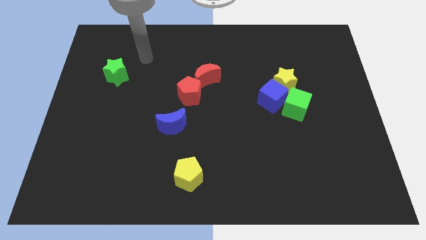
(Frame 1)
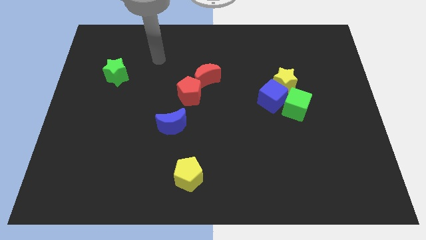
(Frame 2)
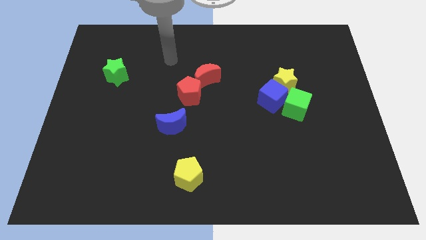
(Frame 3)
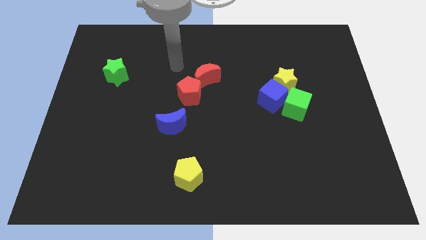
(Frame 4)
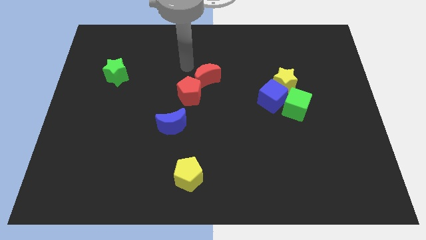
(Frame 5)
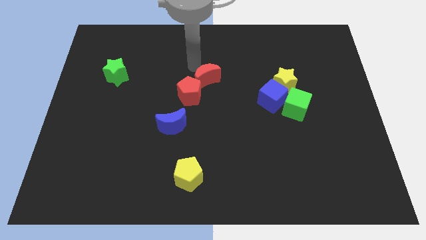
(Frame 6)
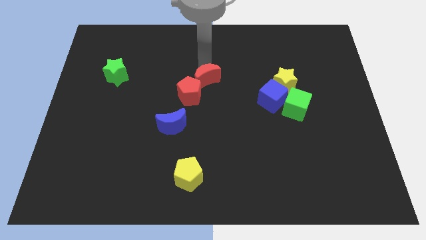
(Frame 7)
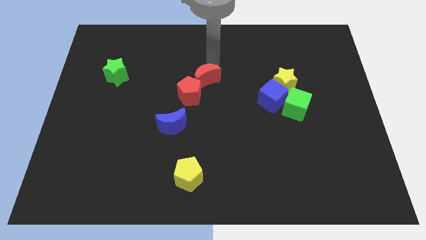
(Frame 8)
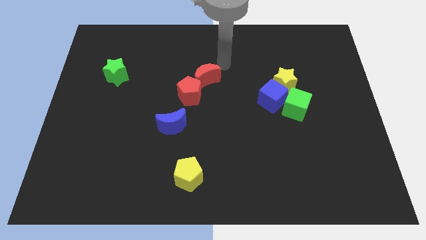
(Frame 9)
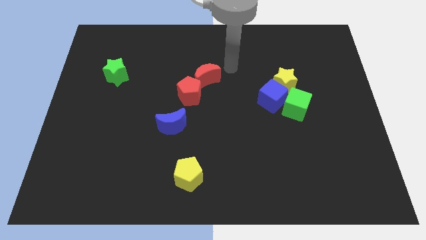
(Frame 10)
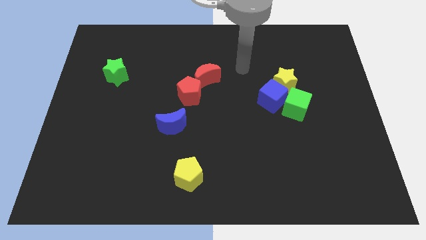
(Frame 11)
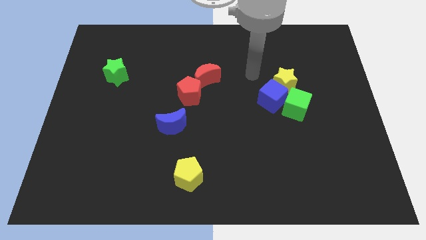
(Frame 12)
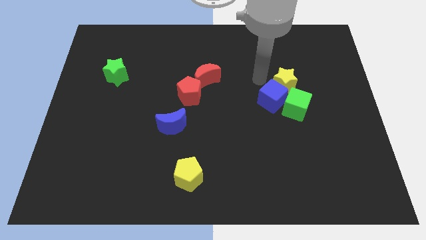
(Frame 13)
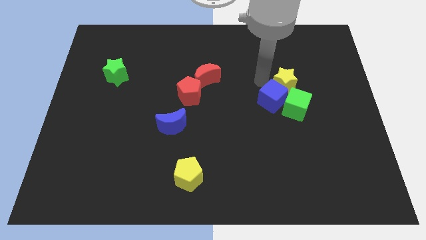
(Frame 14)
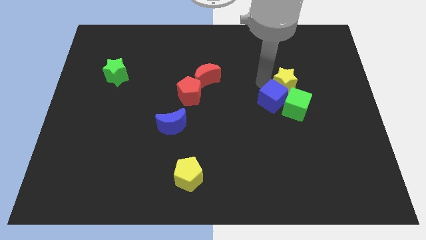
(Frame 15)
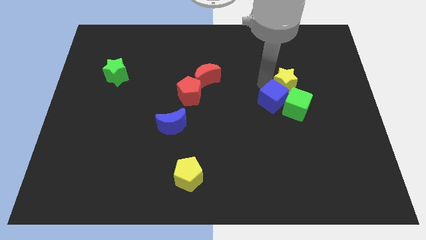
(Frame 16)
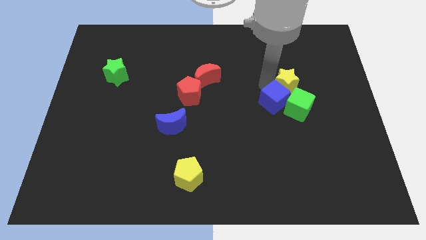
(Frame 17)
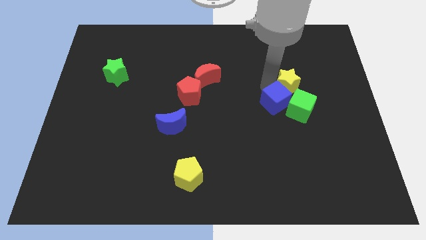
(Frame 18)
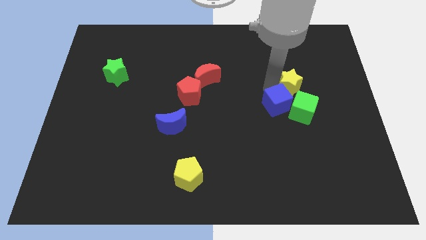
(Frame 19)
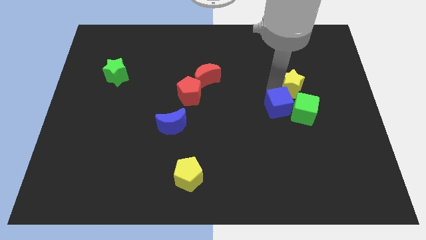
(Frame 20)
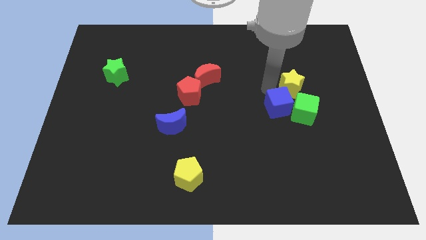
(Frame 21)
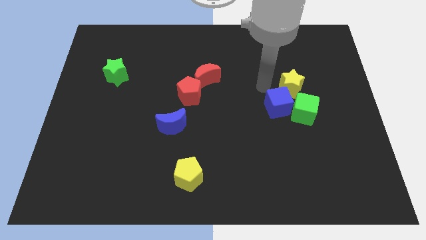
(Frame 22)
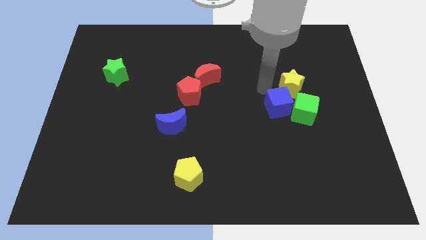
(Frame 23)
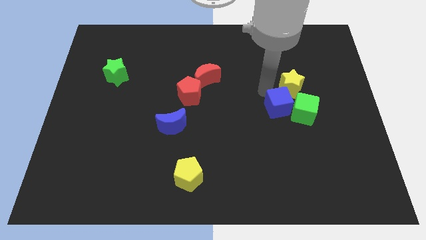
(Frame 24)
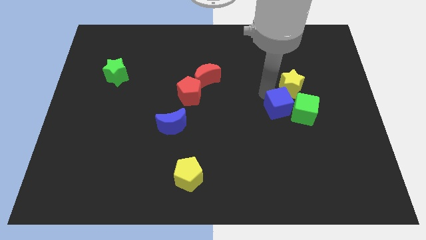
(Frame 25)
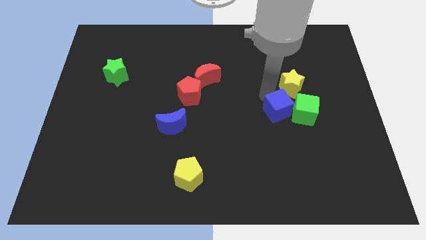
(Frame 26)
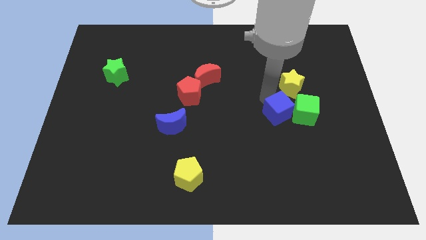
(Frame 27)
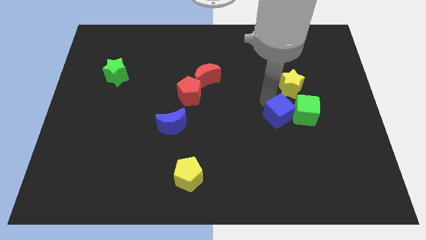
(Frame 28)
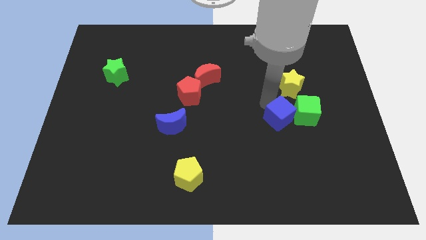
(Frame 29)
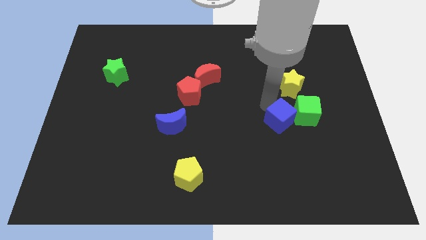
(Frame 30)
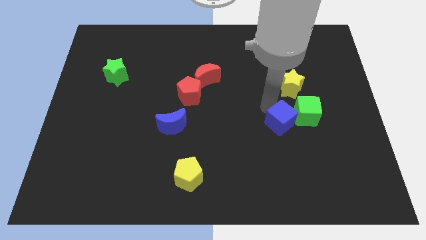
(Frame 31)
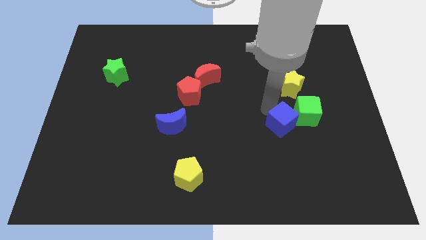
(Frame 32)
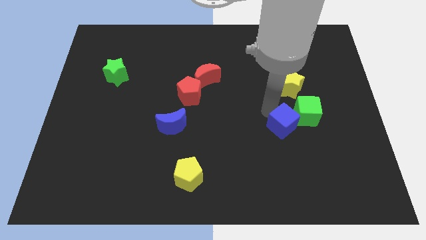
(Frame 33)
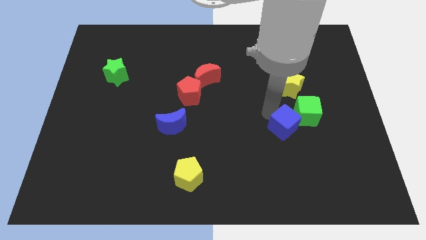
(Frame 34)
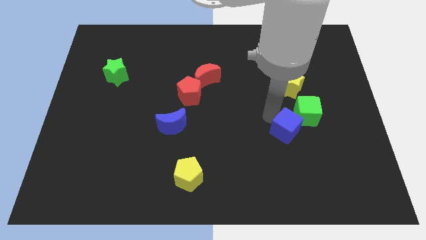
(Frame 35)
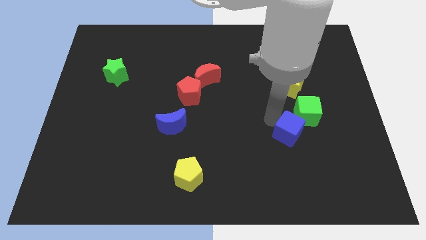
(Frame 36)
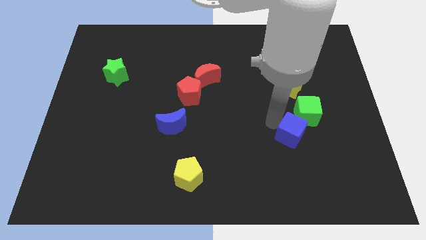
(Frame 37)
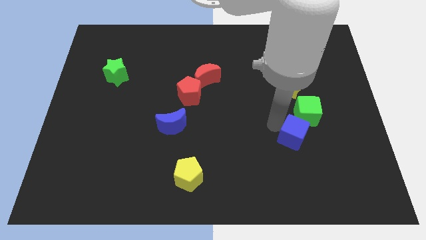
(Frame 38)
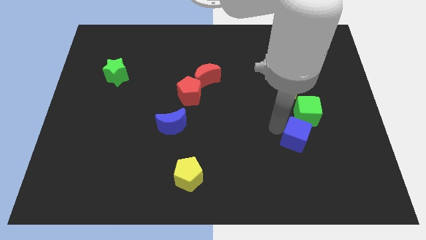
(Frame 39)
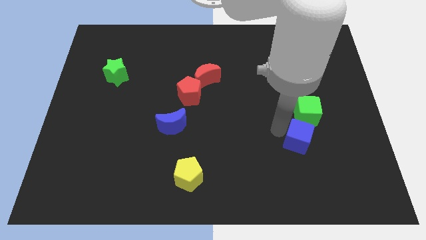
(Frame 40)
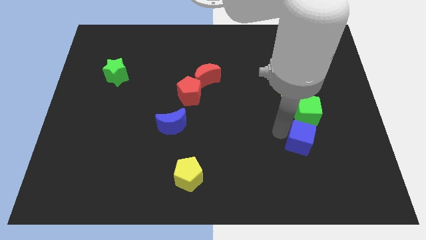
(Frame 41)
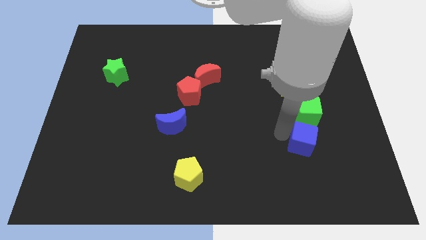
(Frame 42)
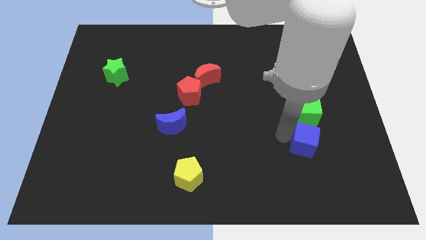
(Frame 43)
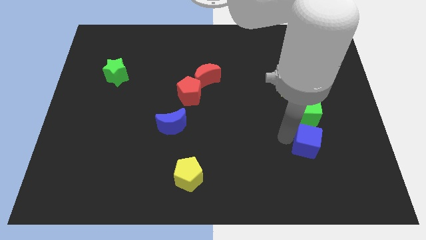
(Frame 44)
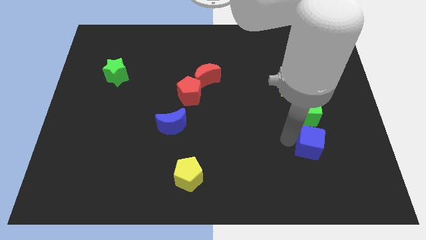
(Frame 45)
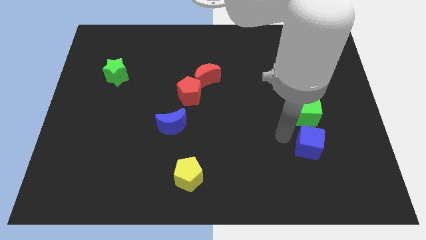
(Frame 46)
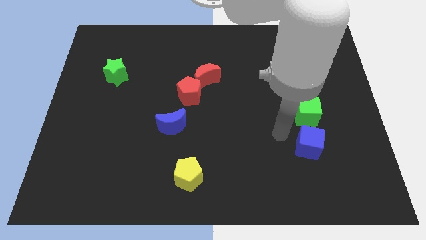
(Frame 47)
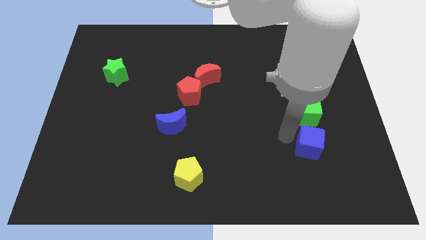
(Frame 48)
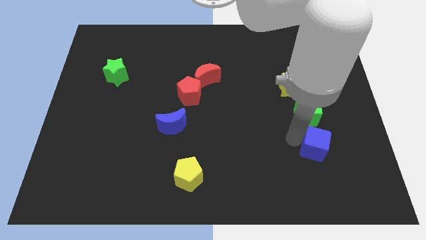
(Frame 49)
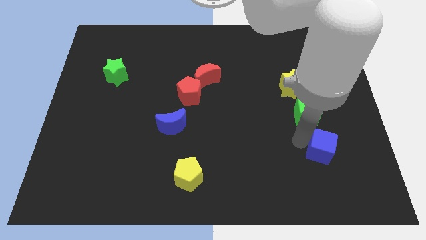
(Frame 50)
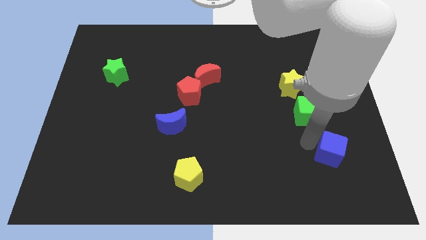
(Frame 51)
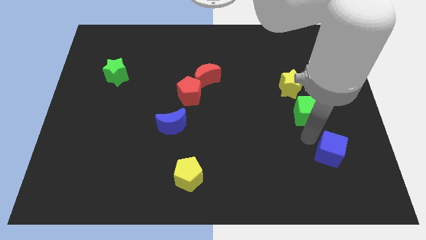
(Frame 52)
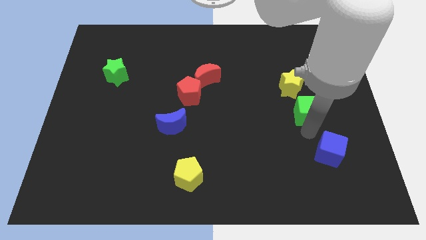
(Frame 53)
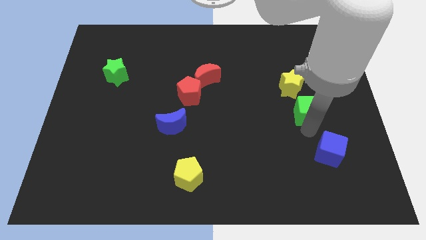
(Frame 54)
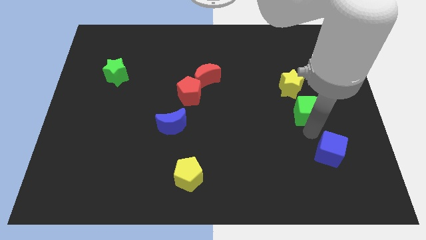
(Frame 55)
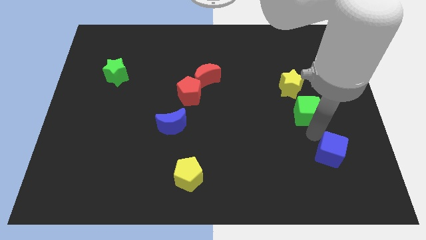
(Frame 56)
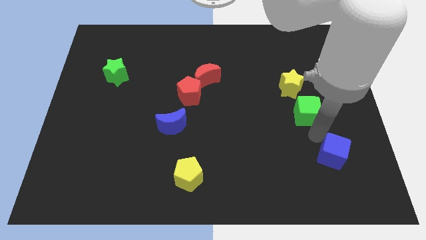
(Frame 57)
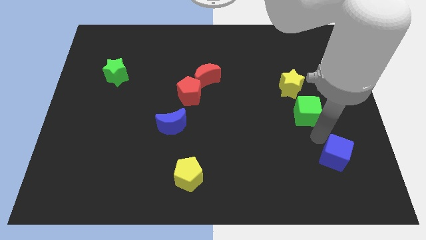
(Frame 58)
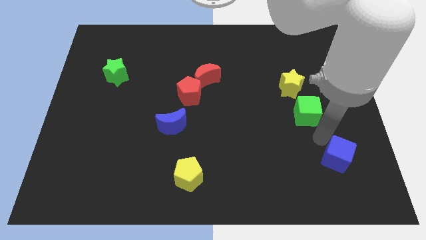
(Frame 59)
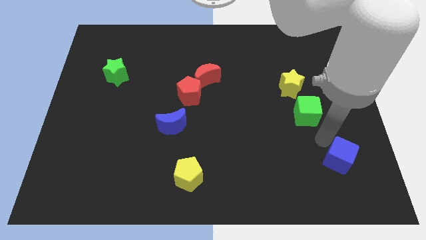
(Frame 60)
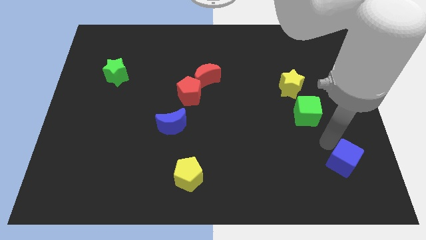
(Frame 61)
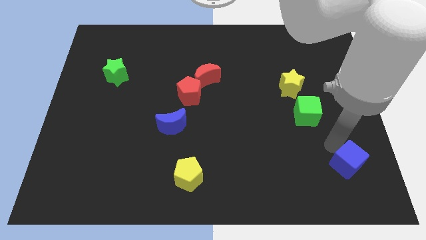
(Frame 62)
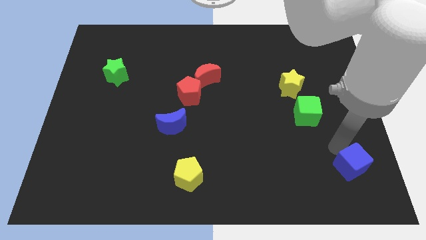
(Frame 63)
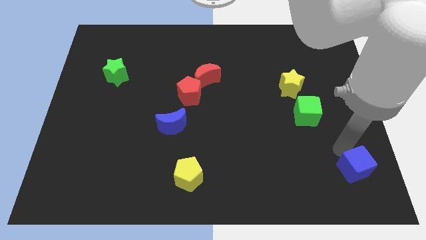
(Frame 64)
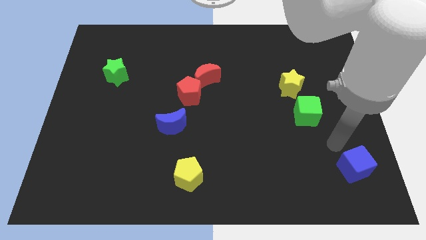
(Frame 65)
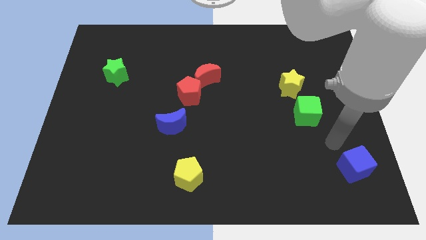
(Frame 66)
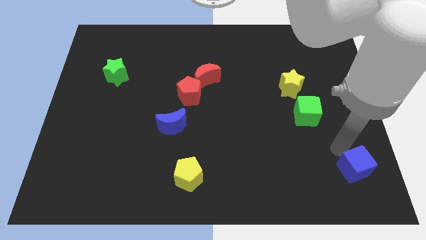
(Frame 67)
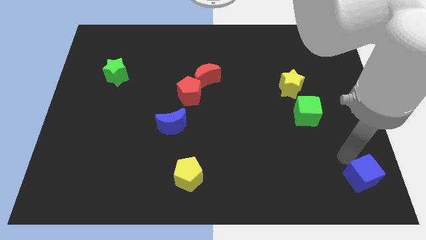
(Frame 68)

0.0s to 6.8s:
move the blue cube to the bottom right of the board
